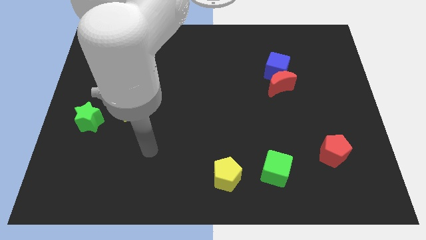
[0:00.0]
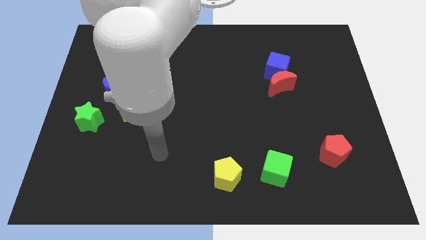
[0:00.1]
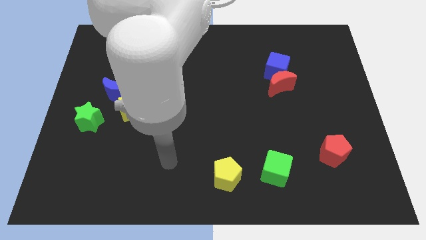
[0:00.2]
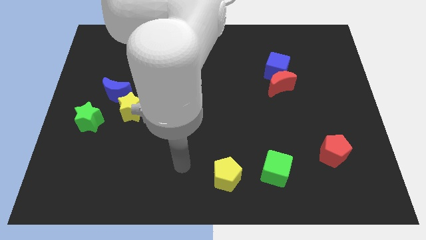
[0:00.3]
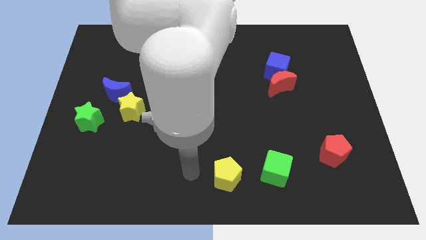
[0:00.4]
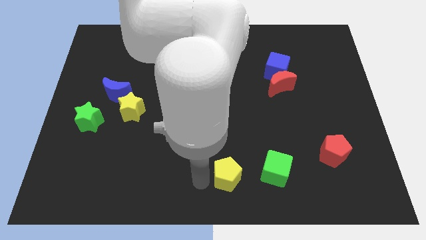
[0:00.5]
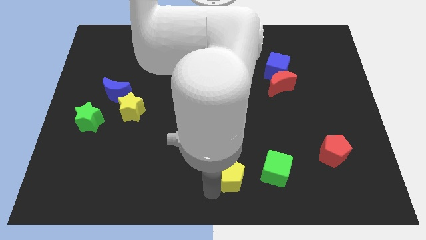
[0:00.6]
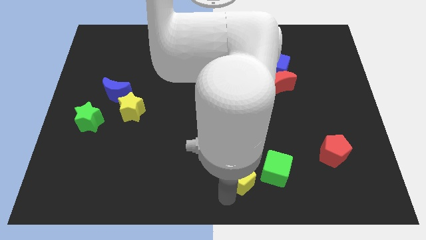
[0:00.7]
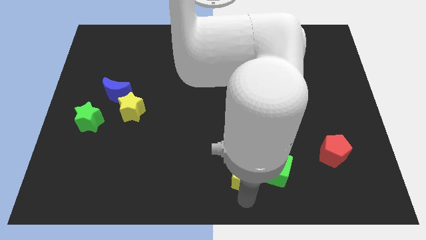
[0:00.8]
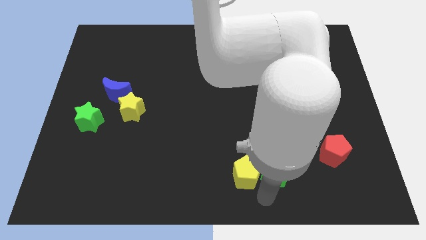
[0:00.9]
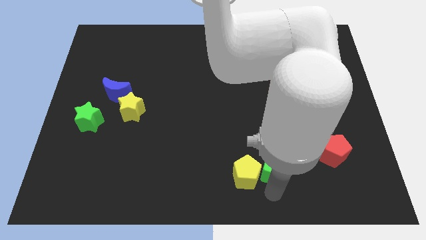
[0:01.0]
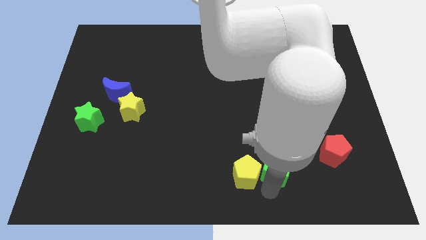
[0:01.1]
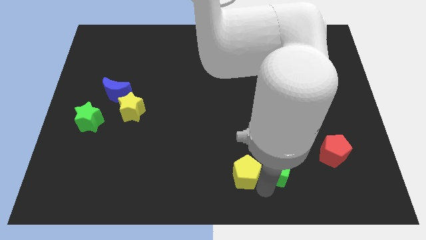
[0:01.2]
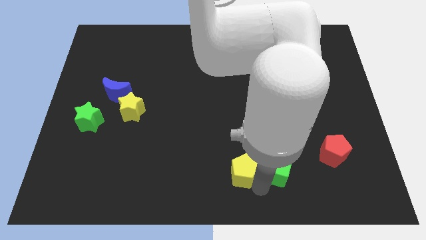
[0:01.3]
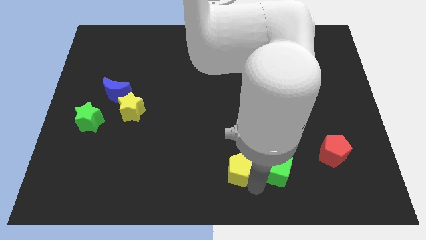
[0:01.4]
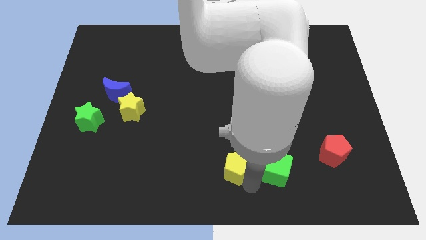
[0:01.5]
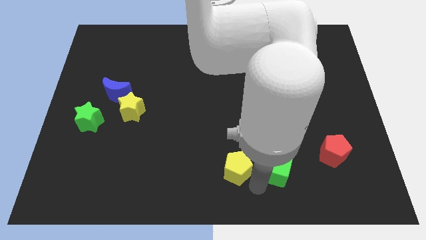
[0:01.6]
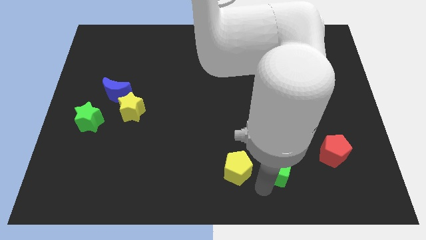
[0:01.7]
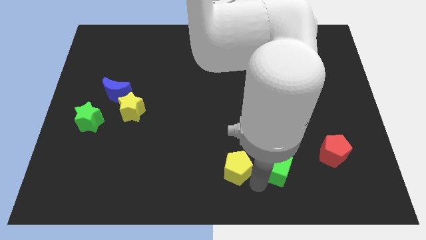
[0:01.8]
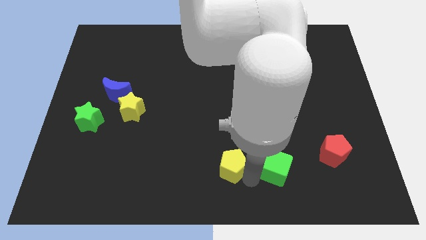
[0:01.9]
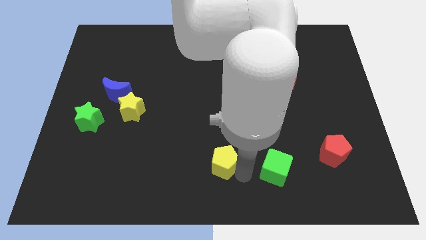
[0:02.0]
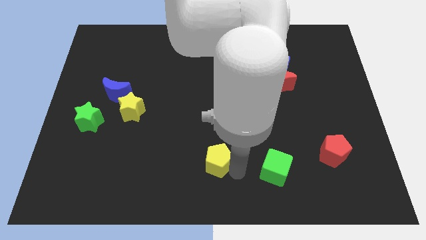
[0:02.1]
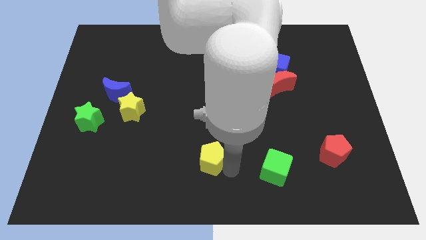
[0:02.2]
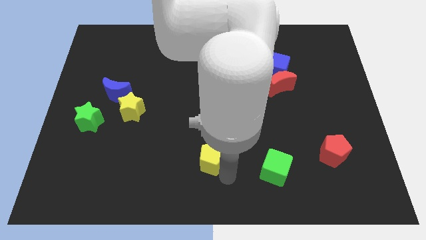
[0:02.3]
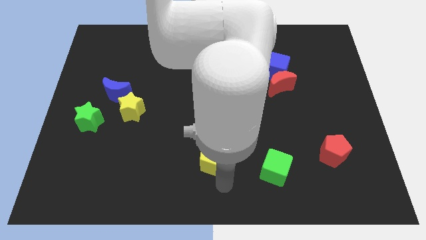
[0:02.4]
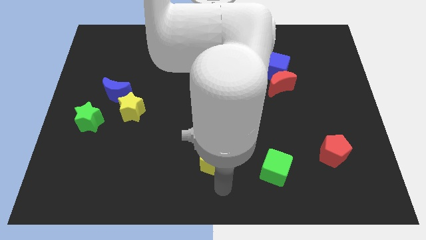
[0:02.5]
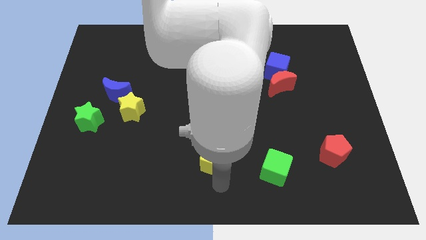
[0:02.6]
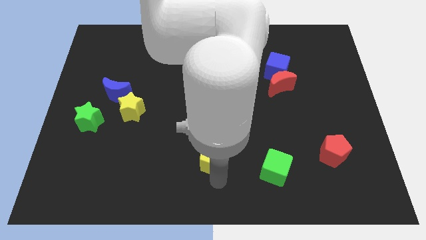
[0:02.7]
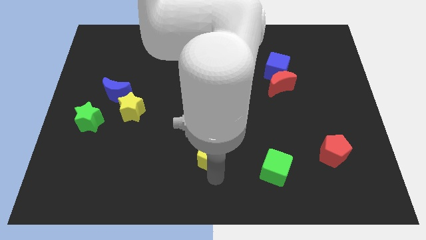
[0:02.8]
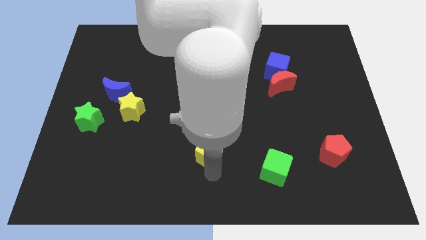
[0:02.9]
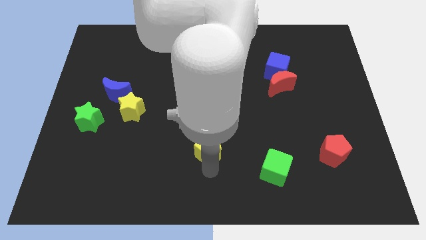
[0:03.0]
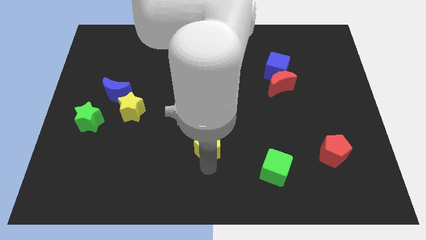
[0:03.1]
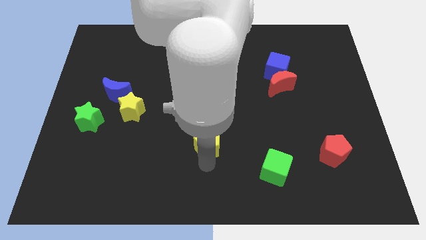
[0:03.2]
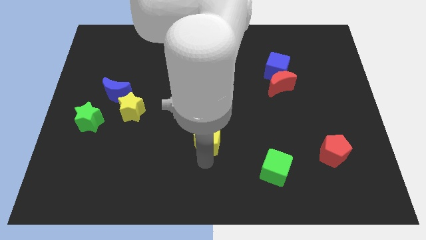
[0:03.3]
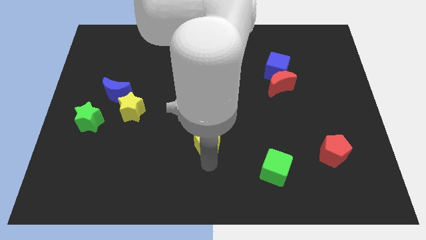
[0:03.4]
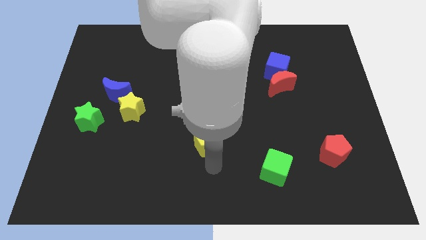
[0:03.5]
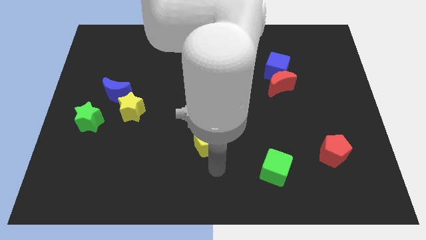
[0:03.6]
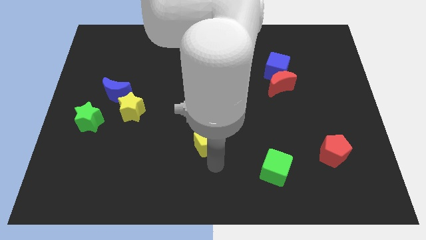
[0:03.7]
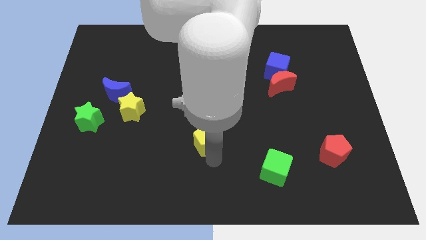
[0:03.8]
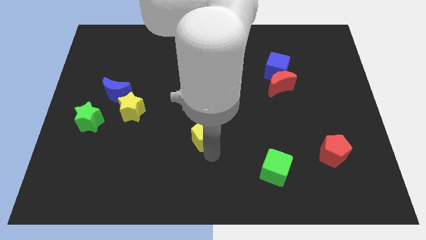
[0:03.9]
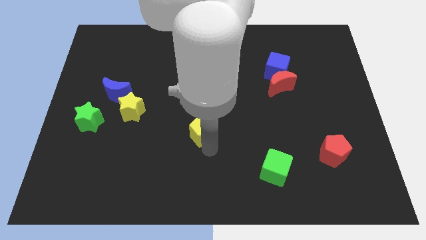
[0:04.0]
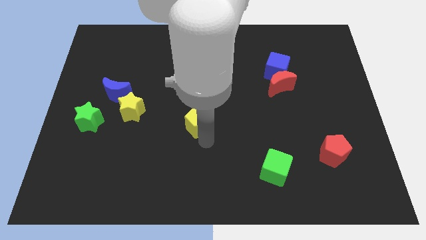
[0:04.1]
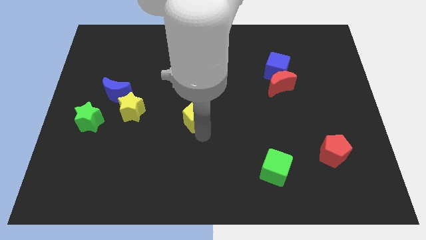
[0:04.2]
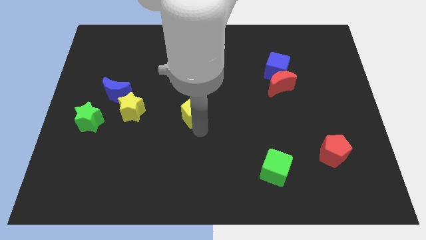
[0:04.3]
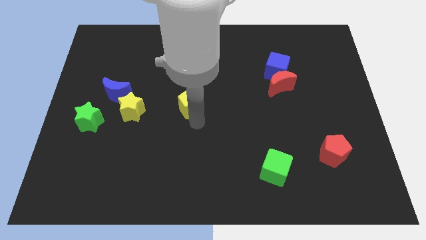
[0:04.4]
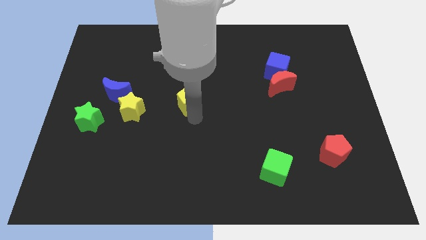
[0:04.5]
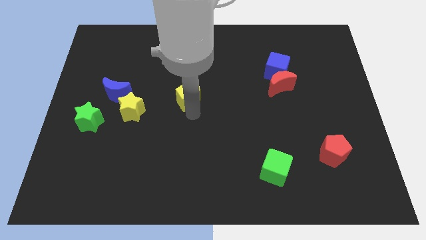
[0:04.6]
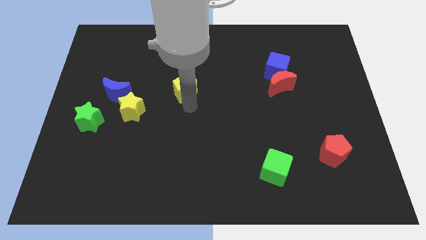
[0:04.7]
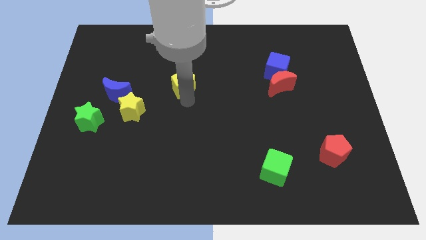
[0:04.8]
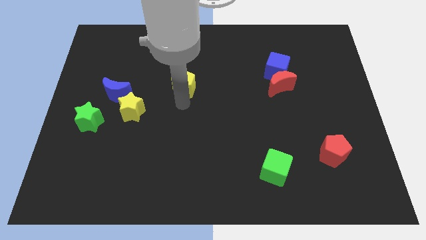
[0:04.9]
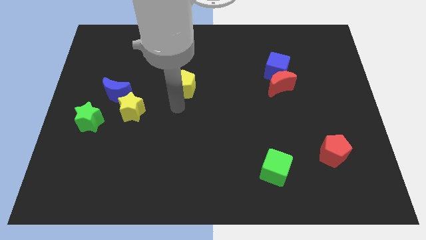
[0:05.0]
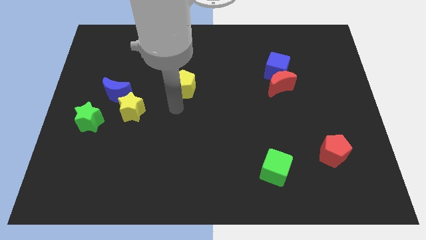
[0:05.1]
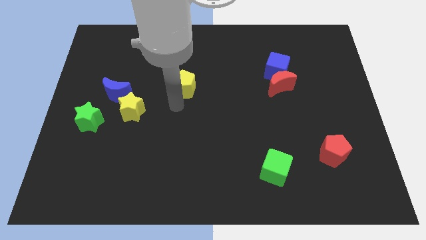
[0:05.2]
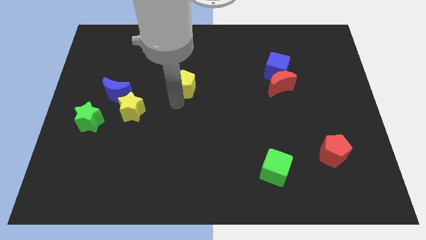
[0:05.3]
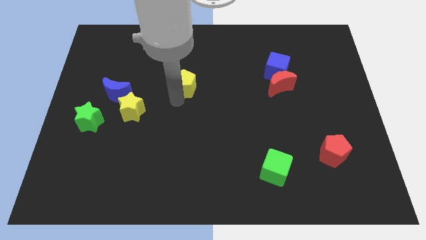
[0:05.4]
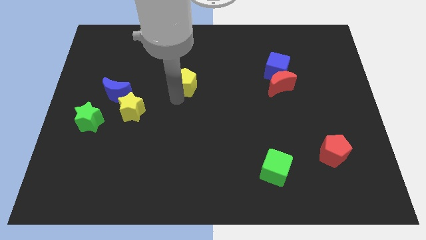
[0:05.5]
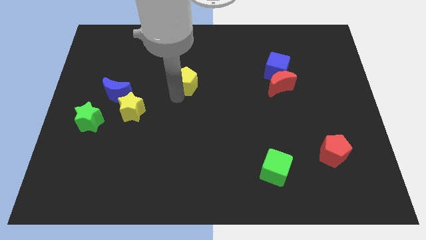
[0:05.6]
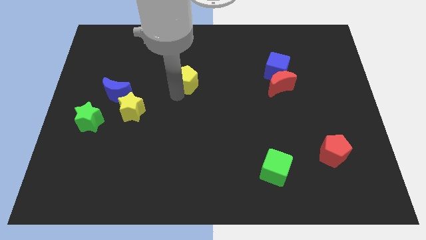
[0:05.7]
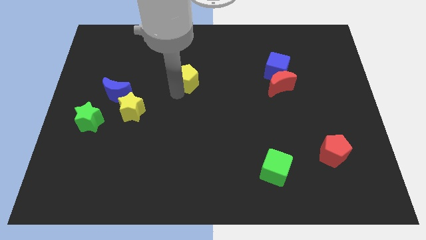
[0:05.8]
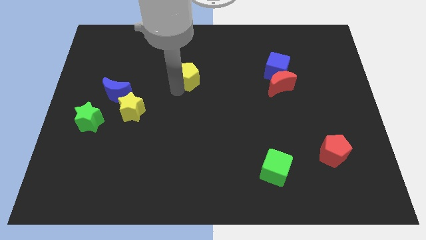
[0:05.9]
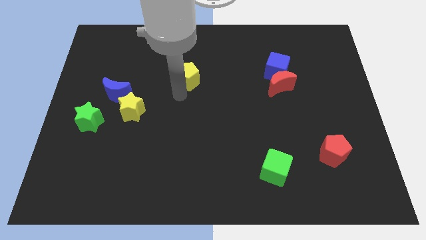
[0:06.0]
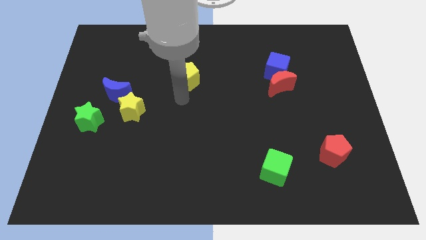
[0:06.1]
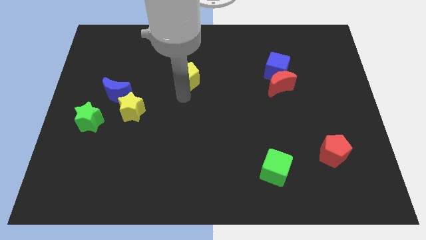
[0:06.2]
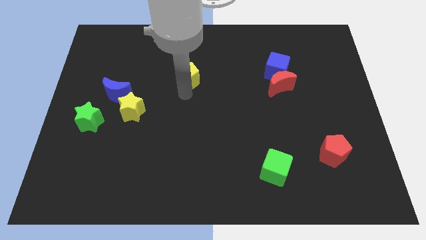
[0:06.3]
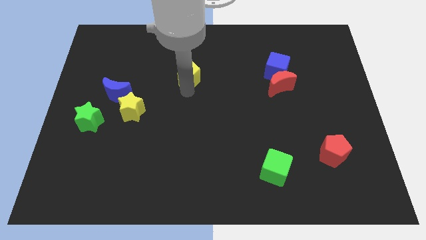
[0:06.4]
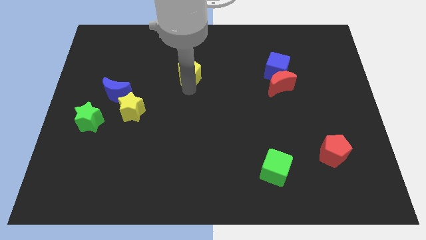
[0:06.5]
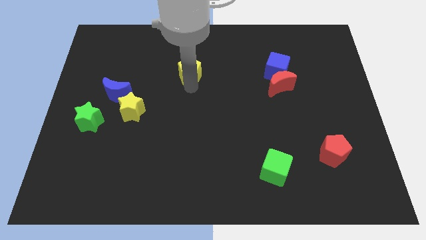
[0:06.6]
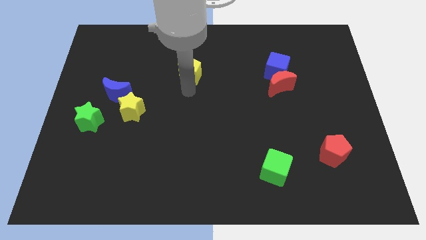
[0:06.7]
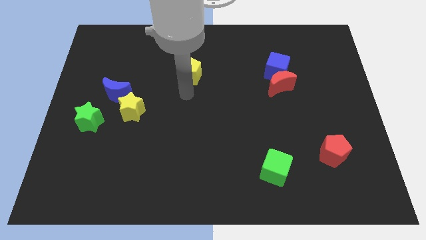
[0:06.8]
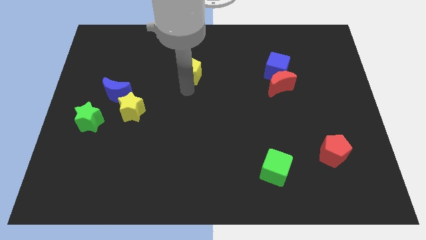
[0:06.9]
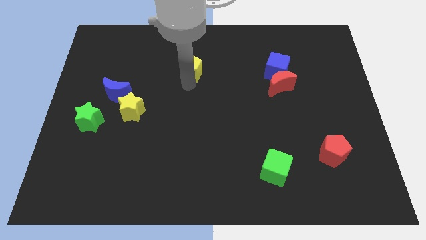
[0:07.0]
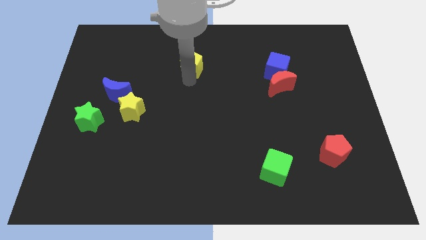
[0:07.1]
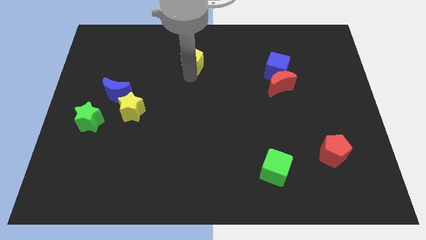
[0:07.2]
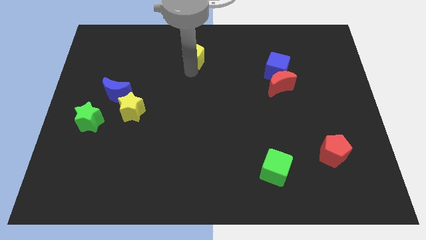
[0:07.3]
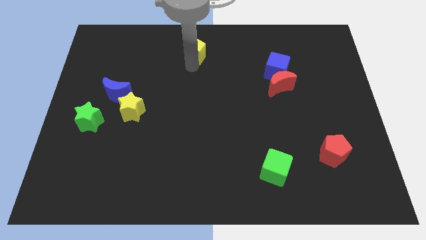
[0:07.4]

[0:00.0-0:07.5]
slide the yellow pentagon to the top
